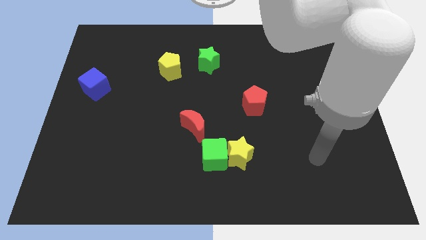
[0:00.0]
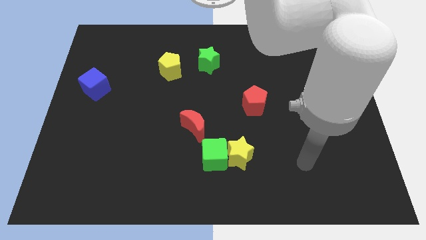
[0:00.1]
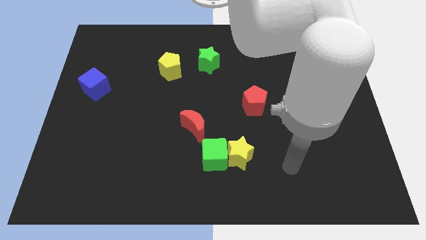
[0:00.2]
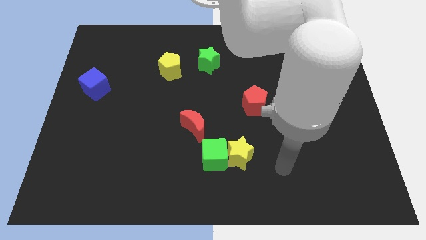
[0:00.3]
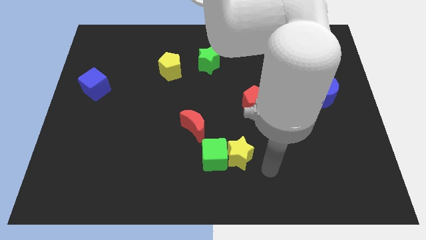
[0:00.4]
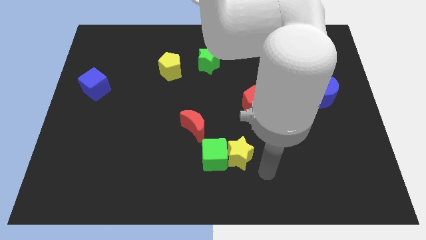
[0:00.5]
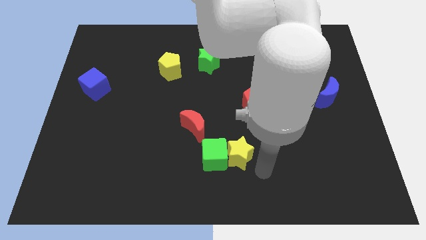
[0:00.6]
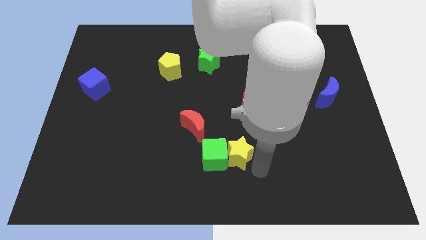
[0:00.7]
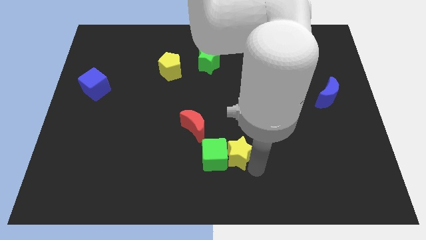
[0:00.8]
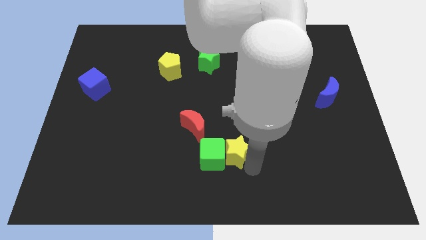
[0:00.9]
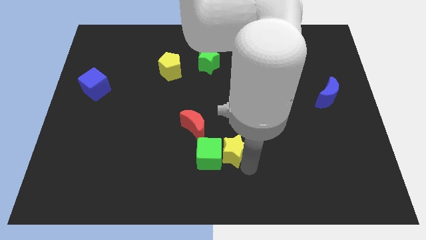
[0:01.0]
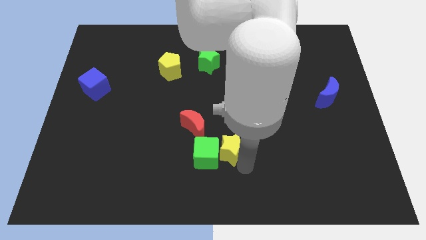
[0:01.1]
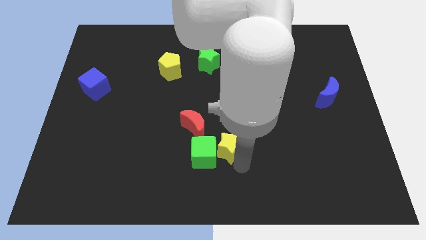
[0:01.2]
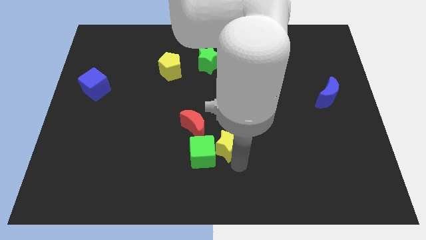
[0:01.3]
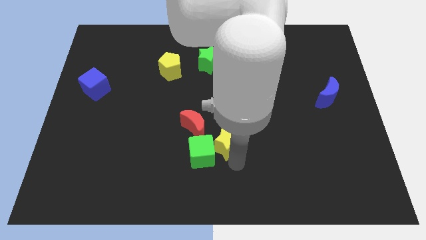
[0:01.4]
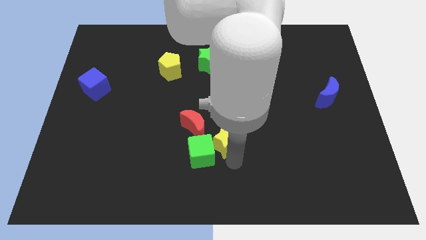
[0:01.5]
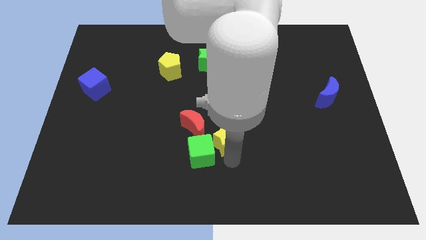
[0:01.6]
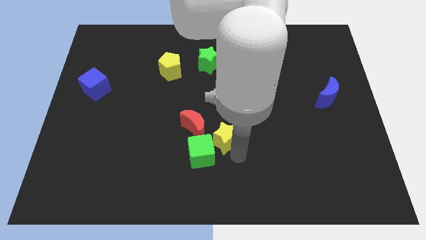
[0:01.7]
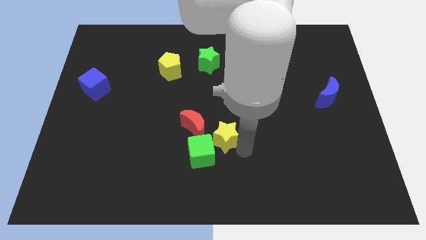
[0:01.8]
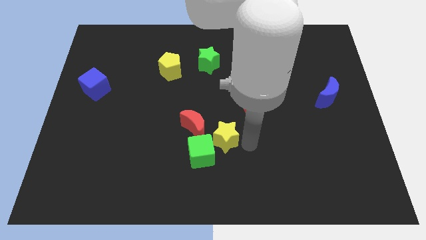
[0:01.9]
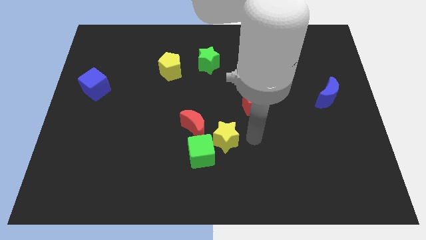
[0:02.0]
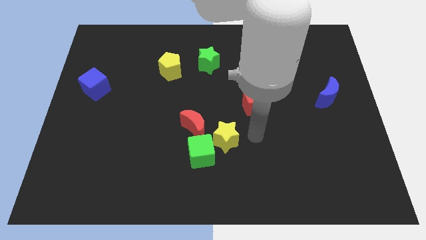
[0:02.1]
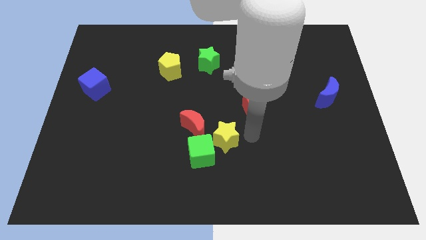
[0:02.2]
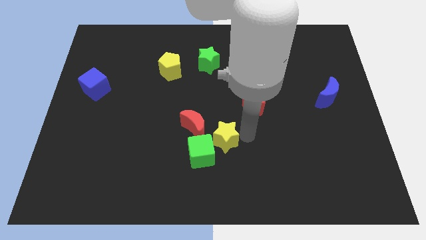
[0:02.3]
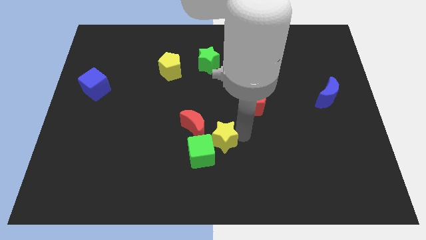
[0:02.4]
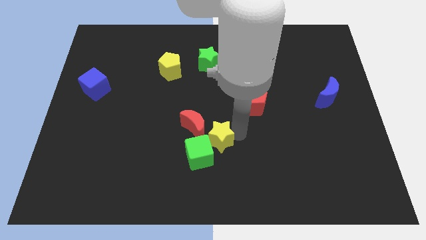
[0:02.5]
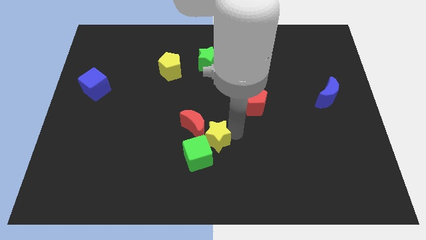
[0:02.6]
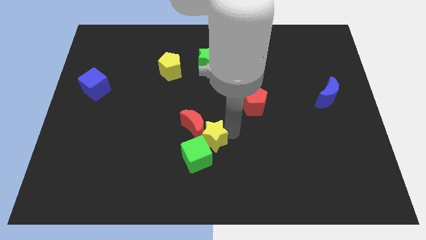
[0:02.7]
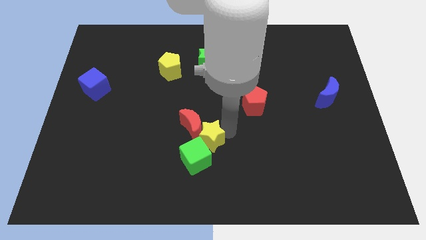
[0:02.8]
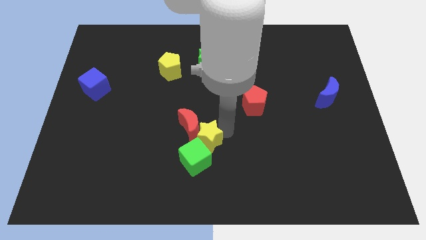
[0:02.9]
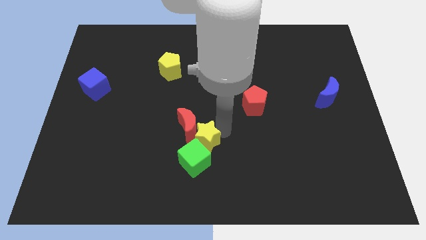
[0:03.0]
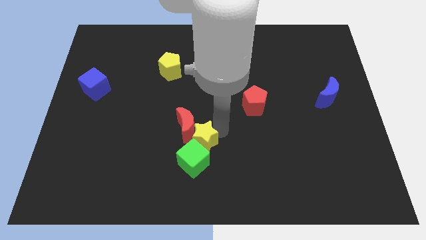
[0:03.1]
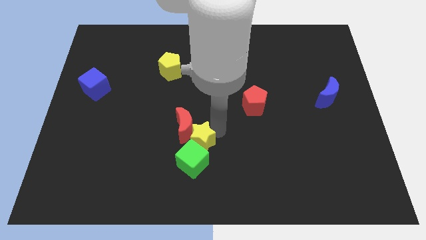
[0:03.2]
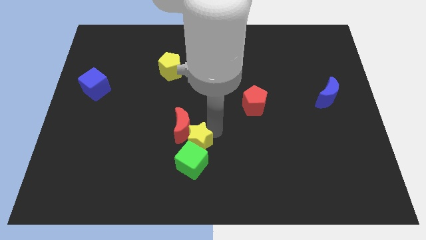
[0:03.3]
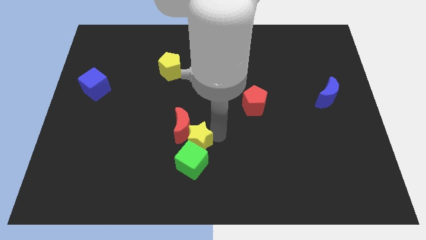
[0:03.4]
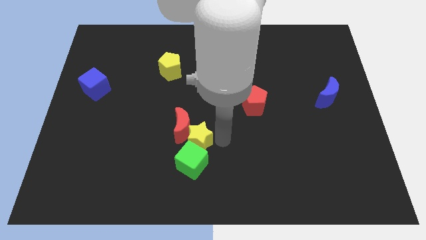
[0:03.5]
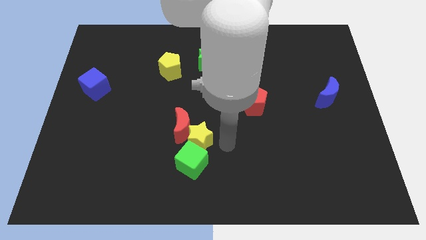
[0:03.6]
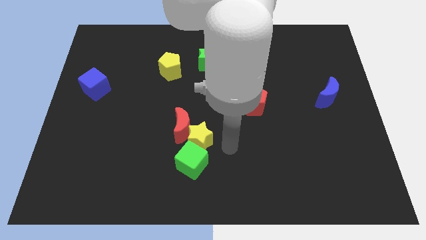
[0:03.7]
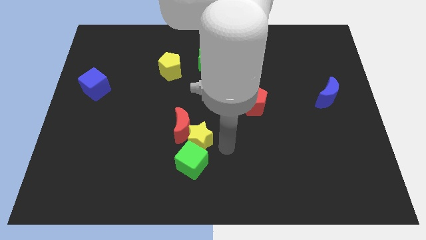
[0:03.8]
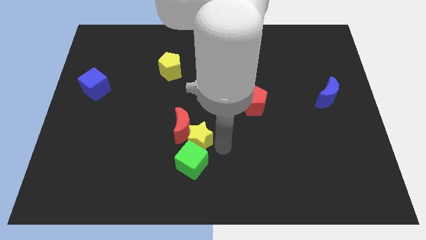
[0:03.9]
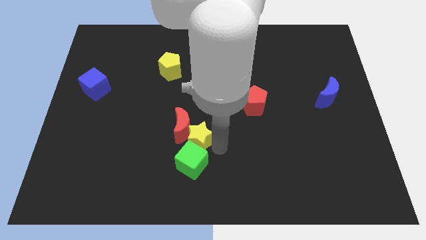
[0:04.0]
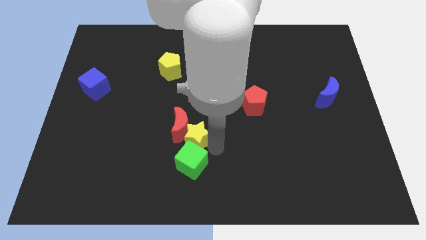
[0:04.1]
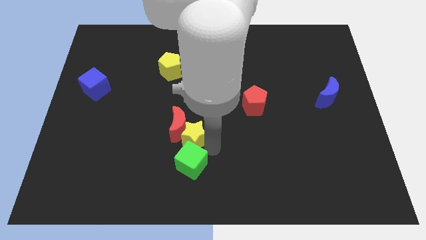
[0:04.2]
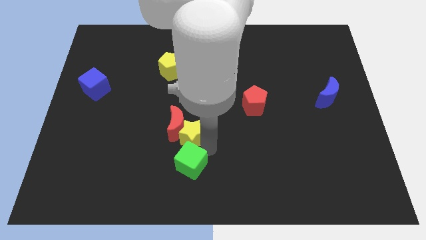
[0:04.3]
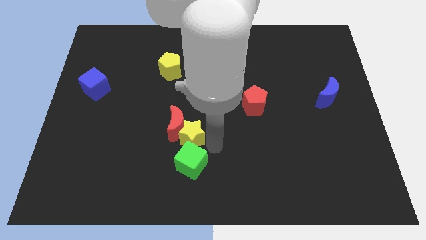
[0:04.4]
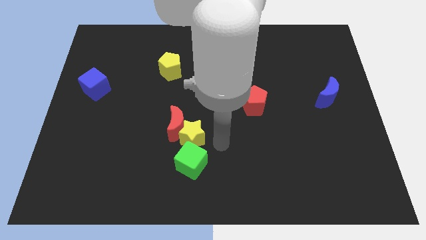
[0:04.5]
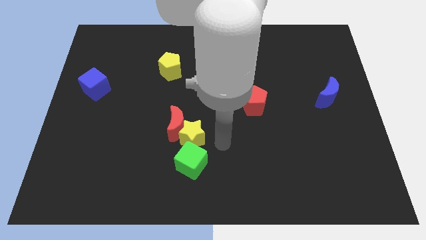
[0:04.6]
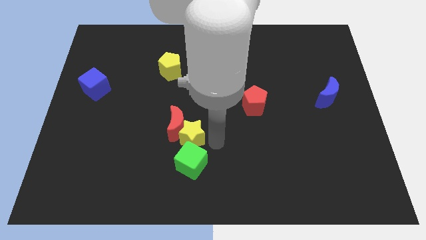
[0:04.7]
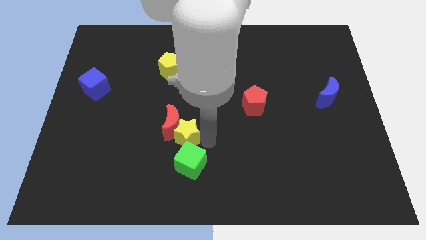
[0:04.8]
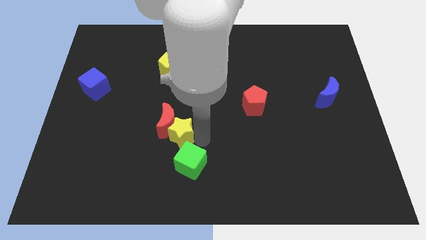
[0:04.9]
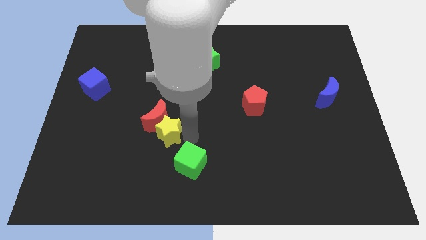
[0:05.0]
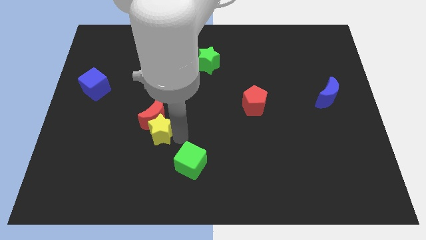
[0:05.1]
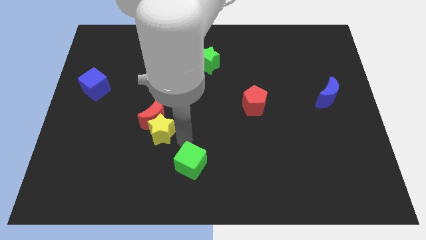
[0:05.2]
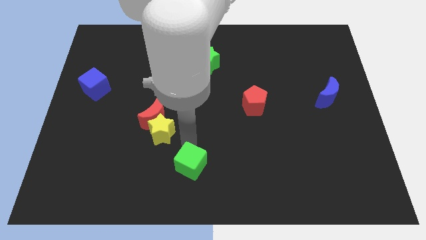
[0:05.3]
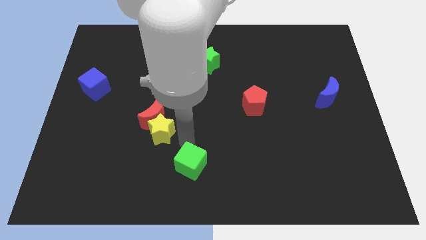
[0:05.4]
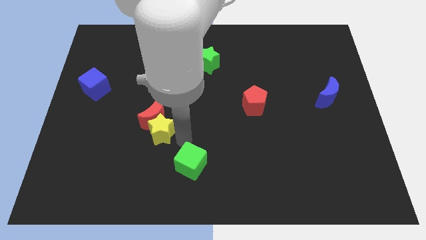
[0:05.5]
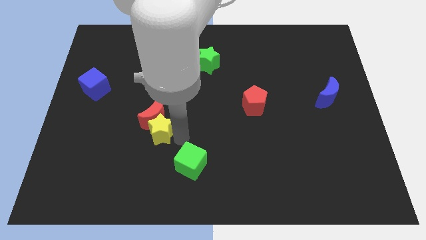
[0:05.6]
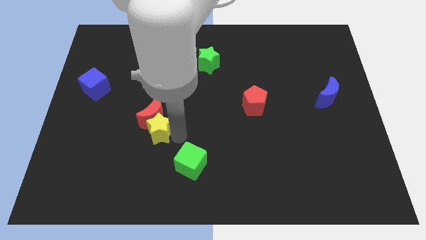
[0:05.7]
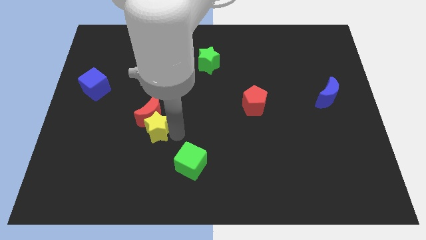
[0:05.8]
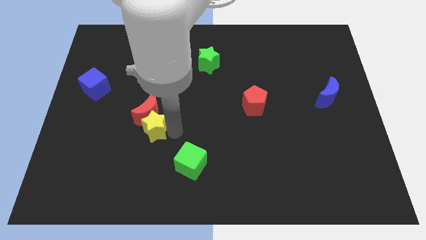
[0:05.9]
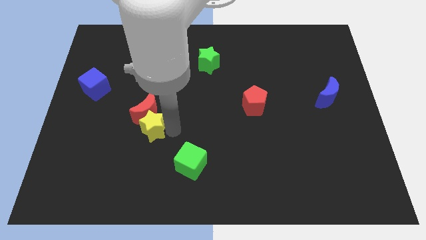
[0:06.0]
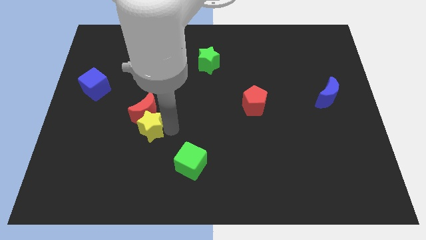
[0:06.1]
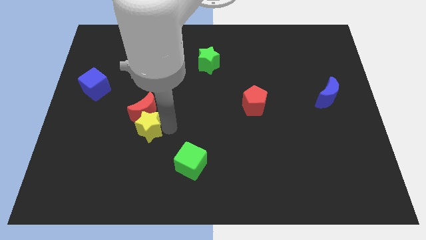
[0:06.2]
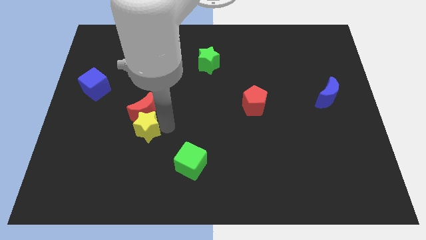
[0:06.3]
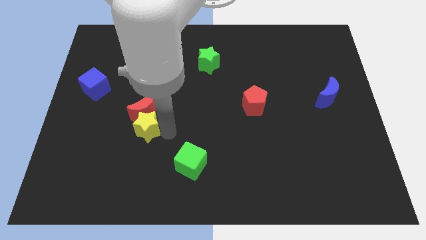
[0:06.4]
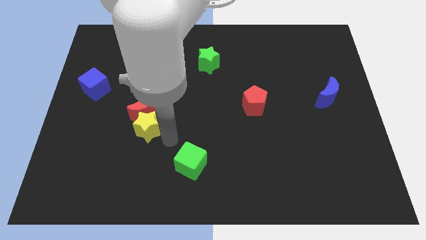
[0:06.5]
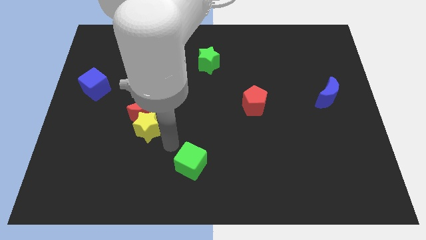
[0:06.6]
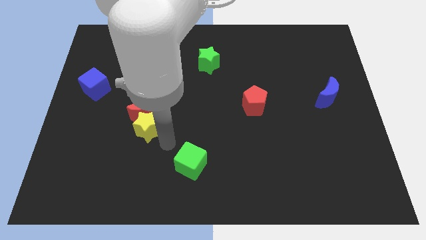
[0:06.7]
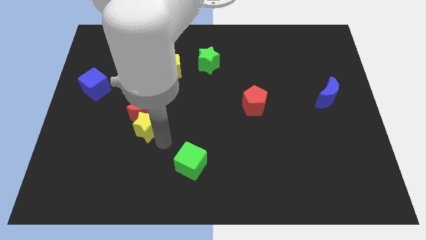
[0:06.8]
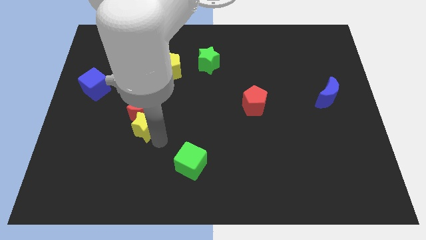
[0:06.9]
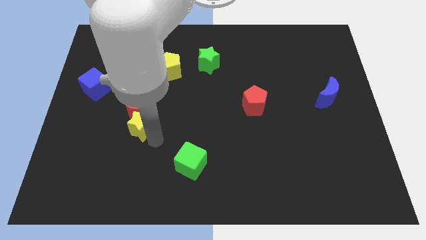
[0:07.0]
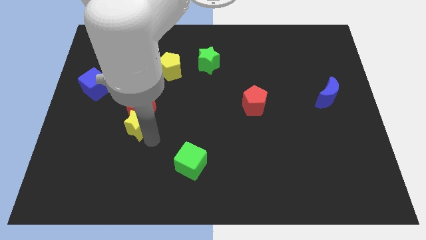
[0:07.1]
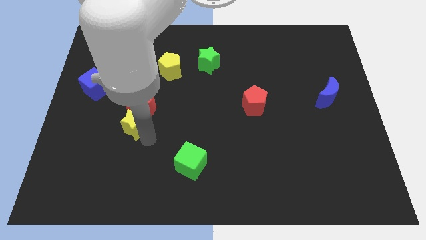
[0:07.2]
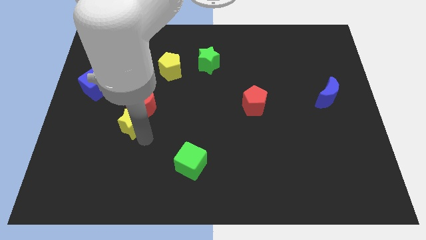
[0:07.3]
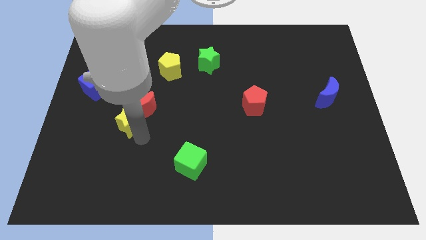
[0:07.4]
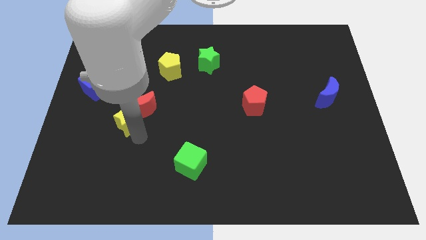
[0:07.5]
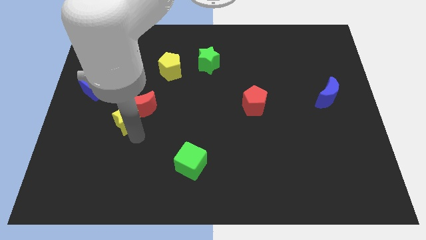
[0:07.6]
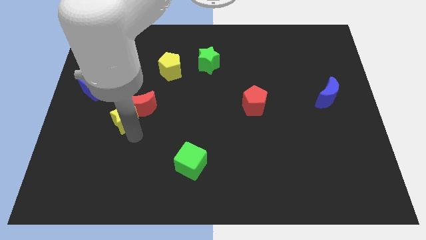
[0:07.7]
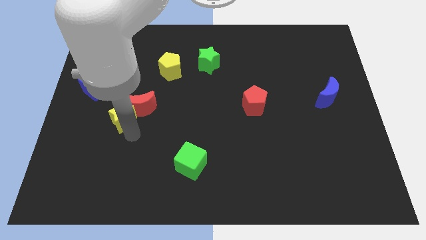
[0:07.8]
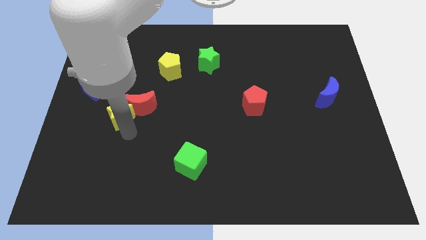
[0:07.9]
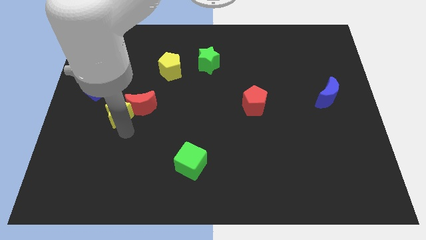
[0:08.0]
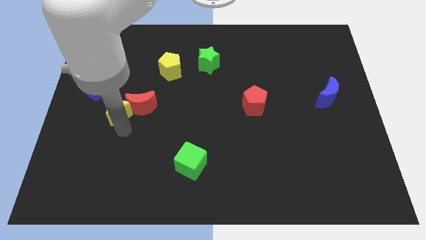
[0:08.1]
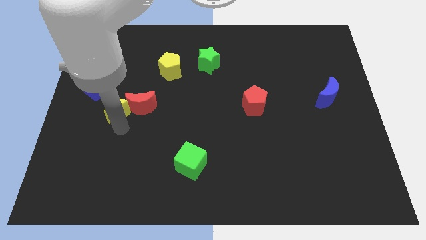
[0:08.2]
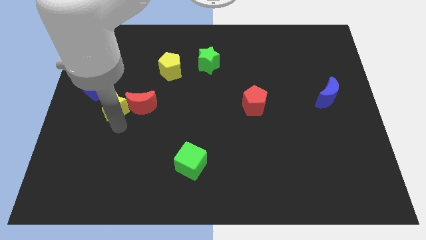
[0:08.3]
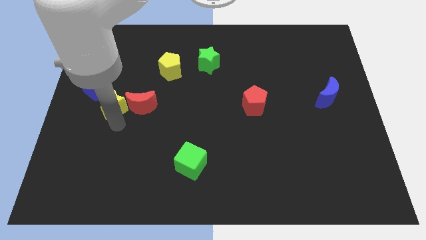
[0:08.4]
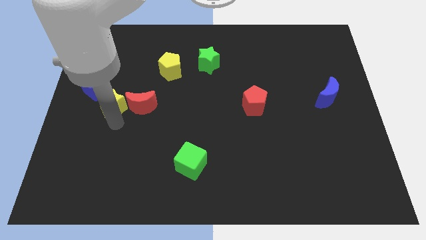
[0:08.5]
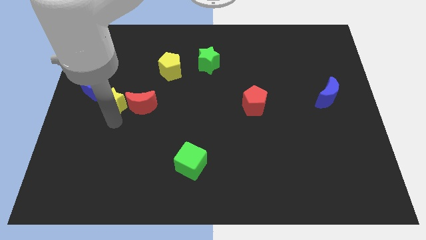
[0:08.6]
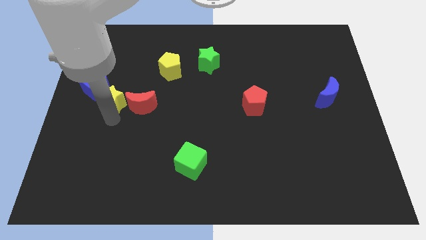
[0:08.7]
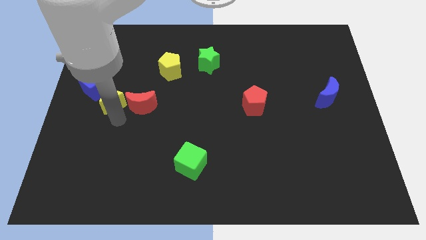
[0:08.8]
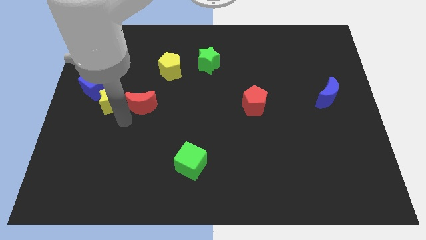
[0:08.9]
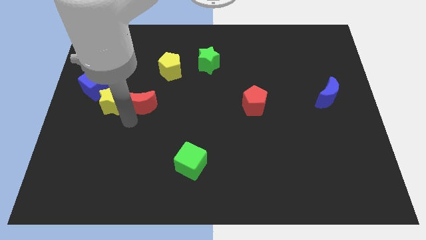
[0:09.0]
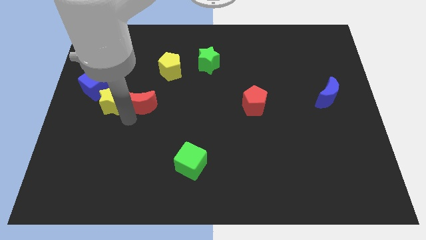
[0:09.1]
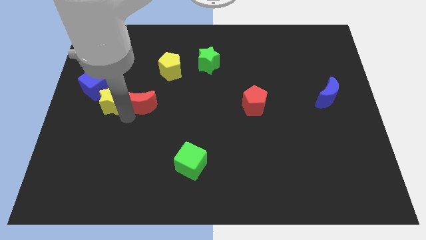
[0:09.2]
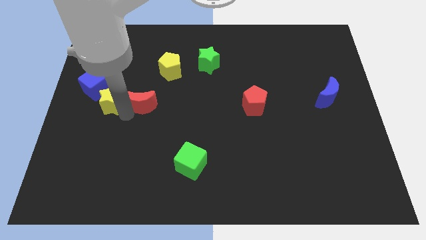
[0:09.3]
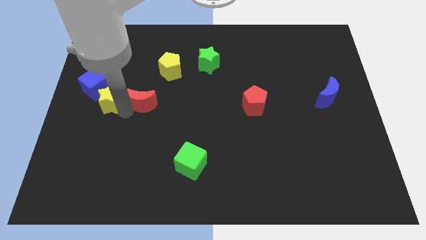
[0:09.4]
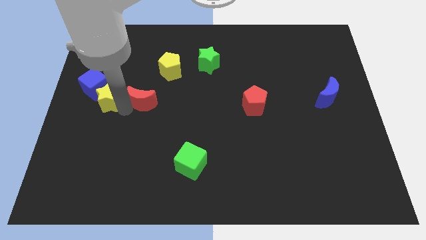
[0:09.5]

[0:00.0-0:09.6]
slide the yellow star close to the blue cube
